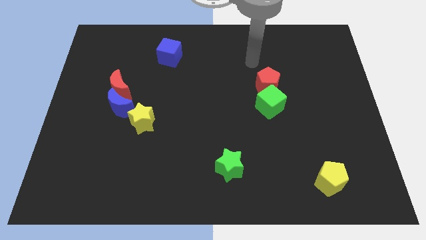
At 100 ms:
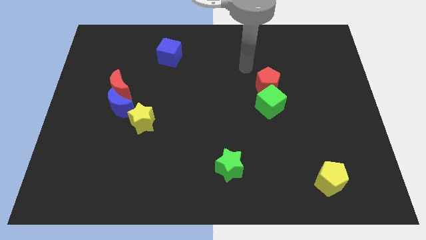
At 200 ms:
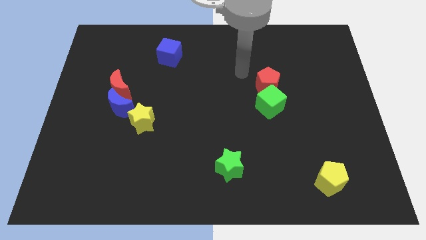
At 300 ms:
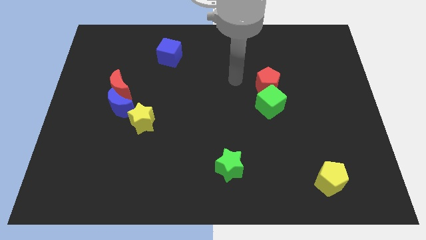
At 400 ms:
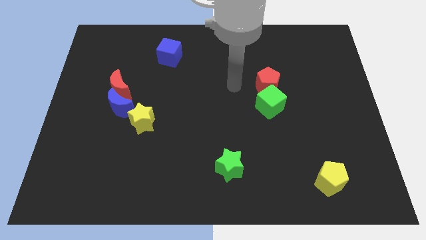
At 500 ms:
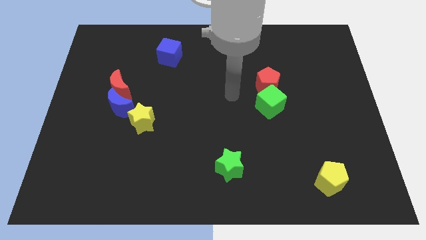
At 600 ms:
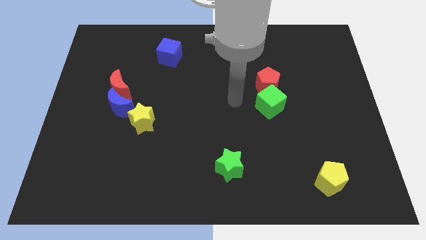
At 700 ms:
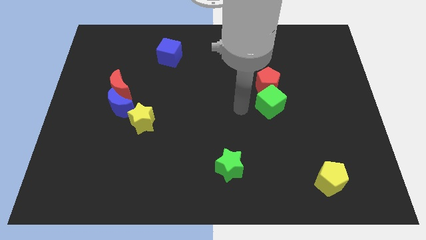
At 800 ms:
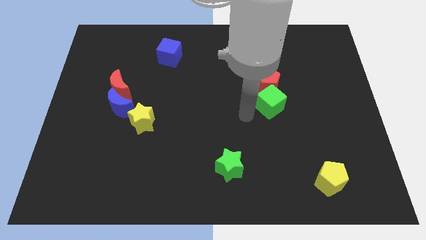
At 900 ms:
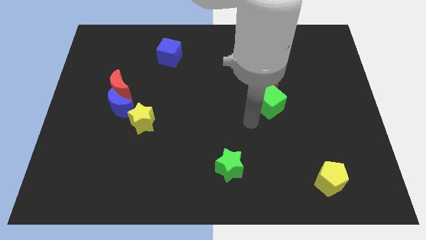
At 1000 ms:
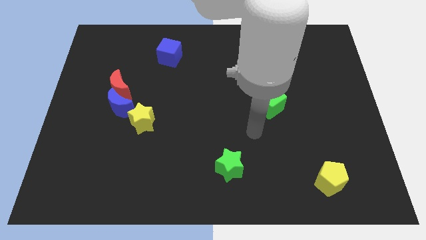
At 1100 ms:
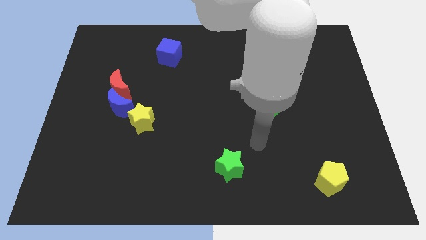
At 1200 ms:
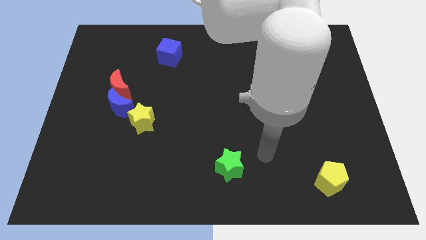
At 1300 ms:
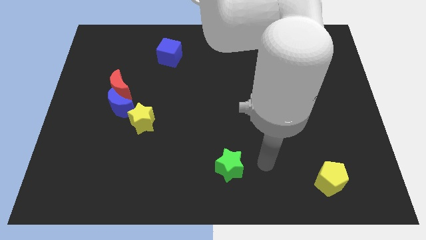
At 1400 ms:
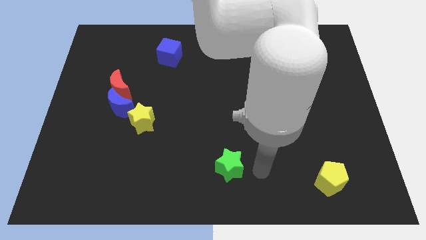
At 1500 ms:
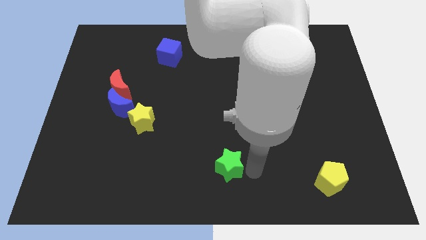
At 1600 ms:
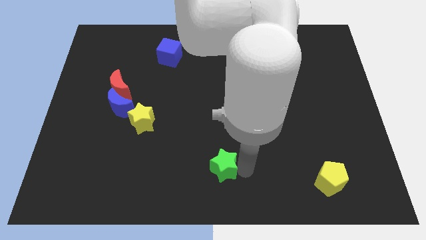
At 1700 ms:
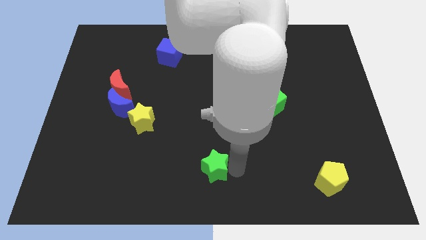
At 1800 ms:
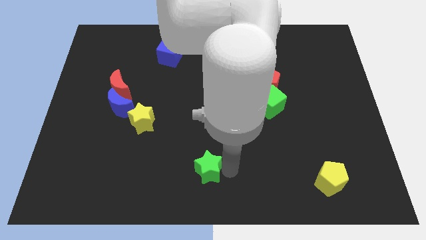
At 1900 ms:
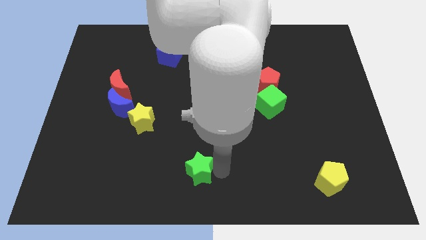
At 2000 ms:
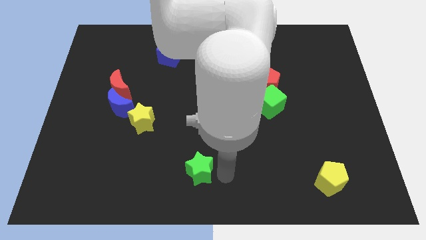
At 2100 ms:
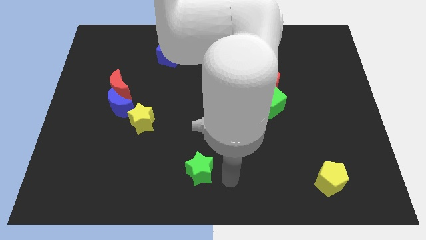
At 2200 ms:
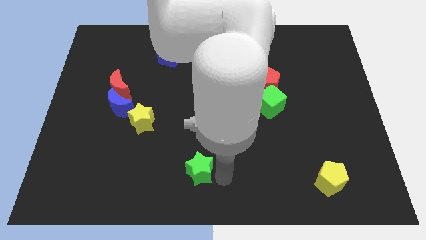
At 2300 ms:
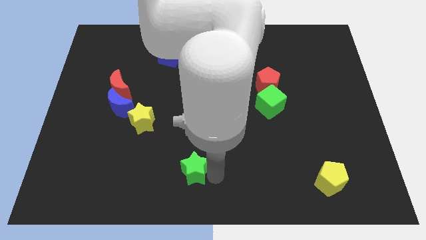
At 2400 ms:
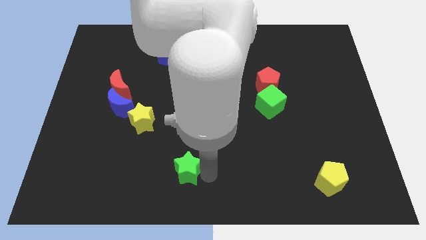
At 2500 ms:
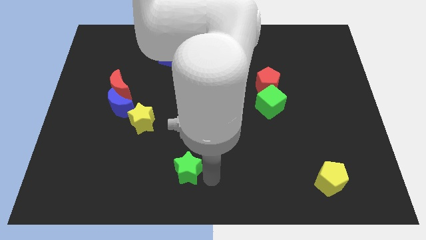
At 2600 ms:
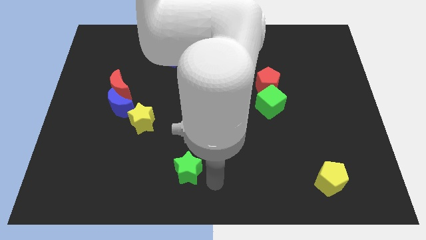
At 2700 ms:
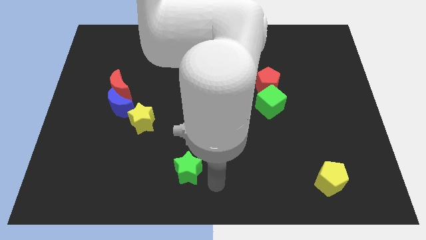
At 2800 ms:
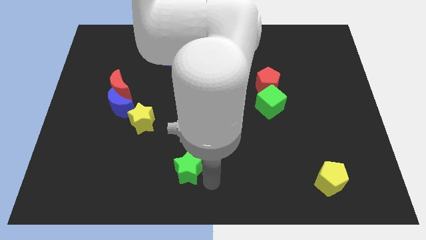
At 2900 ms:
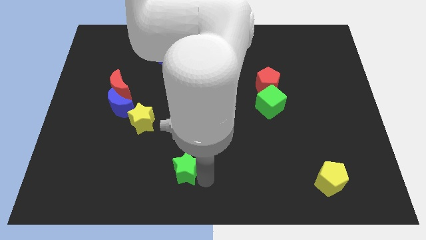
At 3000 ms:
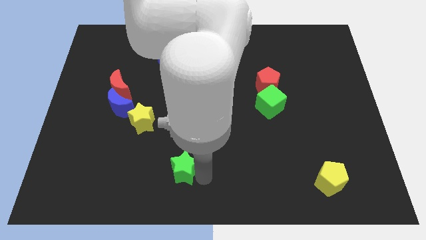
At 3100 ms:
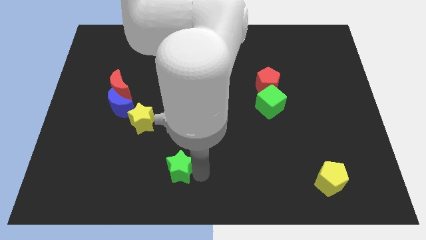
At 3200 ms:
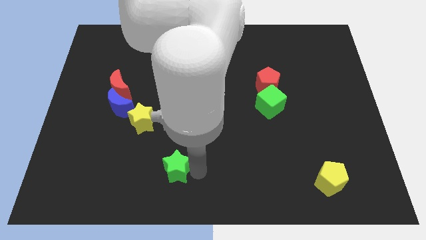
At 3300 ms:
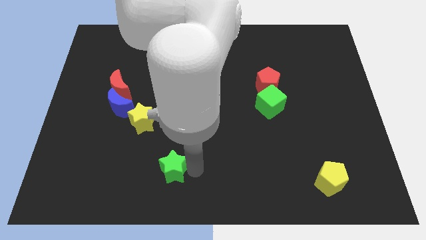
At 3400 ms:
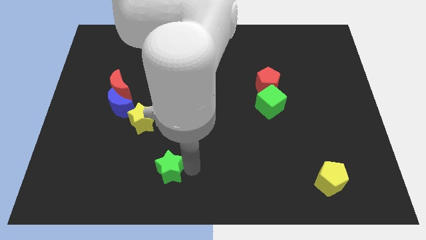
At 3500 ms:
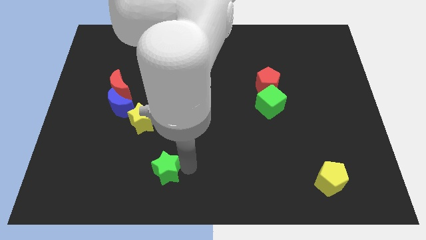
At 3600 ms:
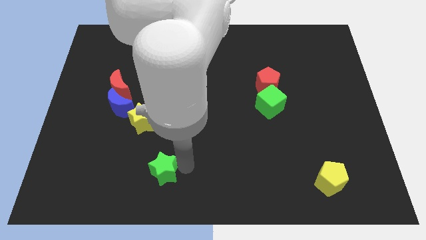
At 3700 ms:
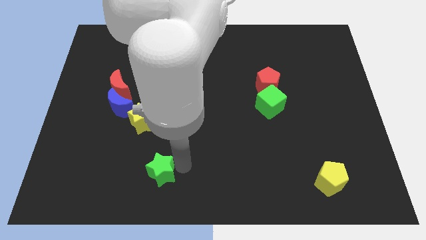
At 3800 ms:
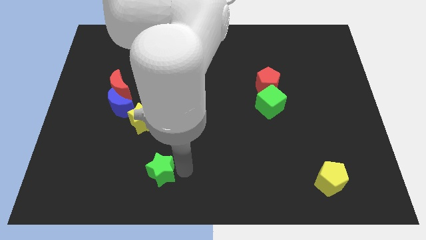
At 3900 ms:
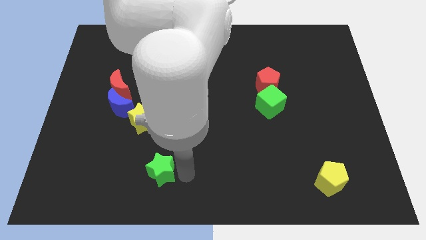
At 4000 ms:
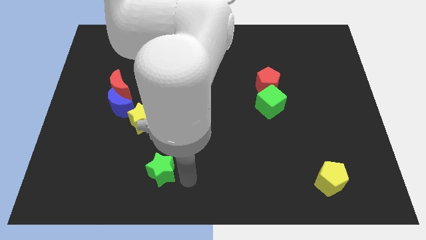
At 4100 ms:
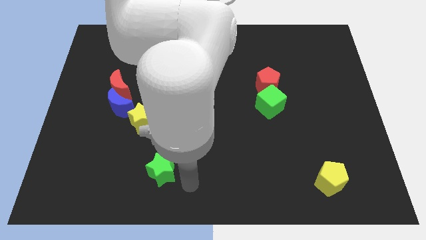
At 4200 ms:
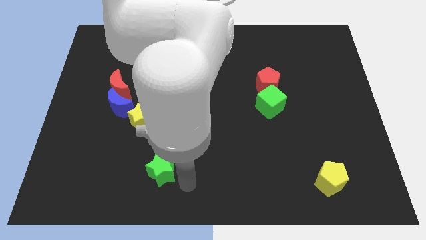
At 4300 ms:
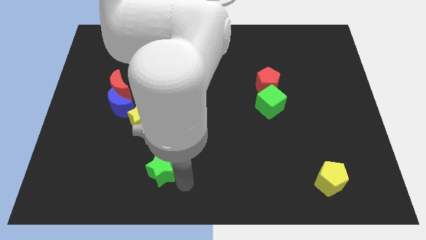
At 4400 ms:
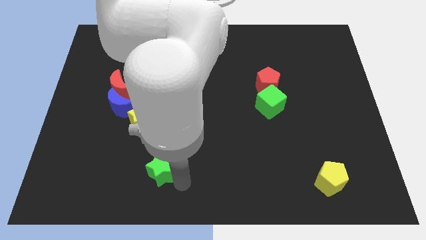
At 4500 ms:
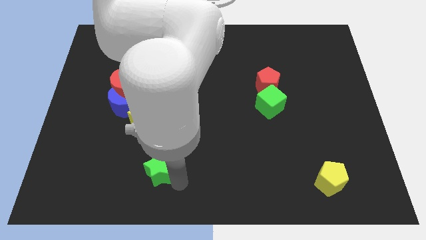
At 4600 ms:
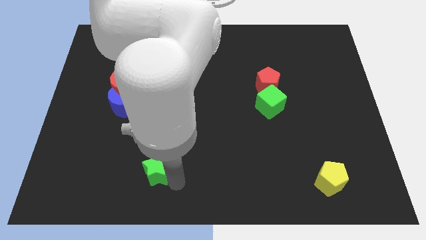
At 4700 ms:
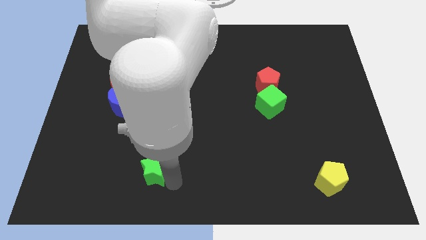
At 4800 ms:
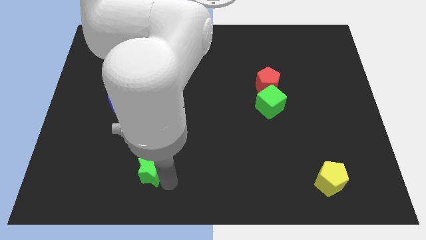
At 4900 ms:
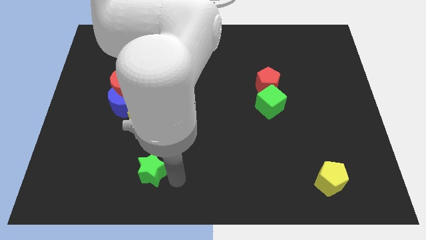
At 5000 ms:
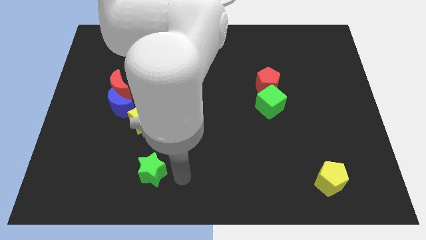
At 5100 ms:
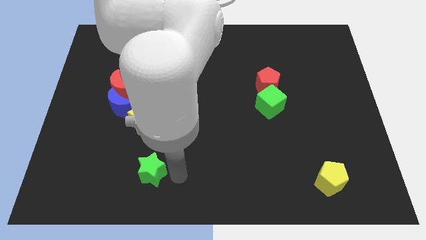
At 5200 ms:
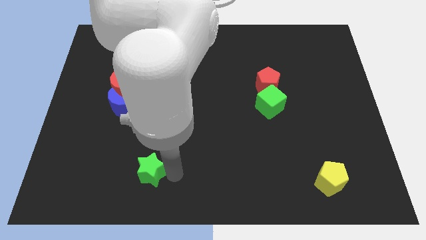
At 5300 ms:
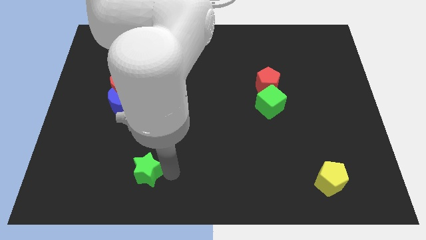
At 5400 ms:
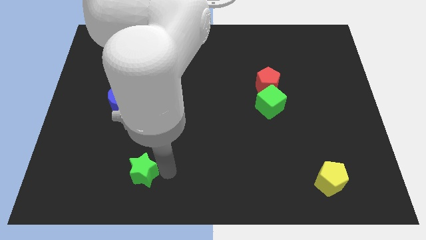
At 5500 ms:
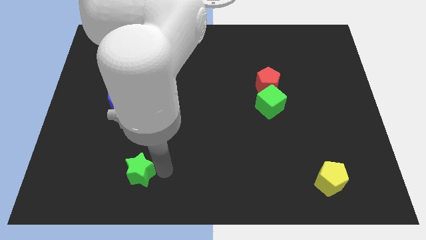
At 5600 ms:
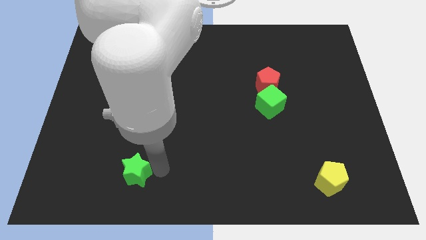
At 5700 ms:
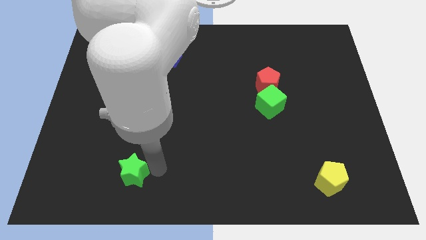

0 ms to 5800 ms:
slide the green star to the left

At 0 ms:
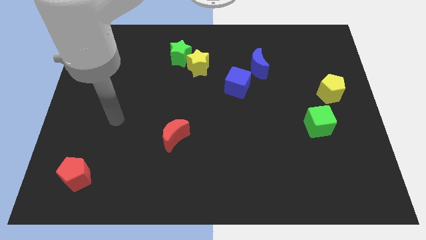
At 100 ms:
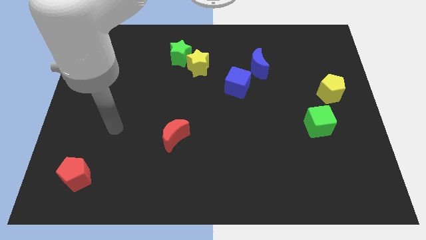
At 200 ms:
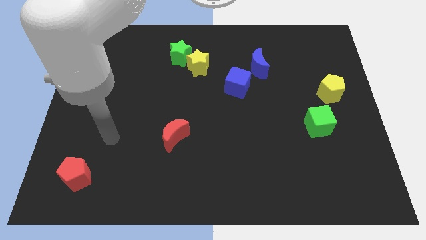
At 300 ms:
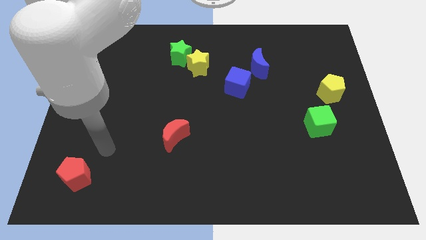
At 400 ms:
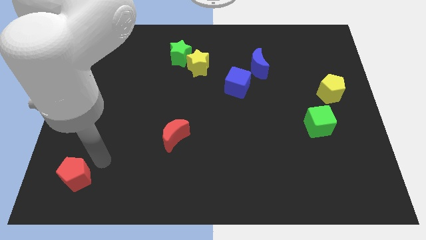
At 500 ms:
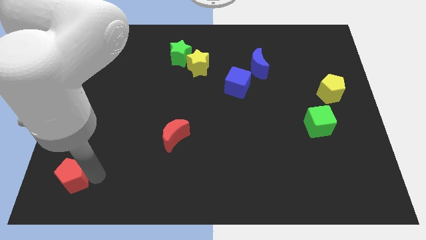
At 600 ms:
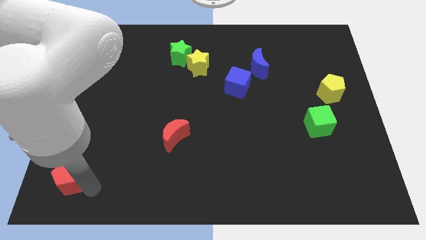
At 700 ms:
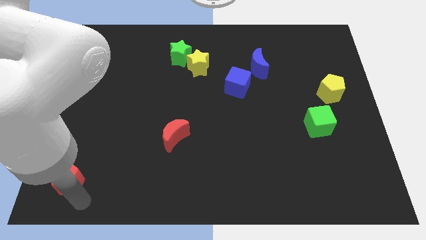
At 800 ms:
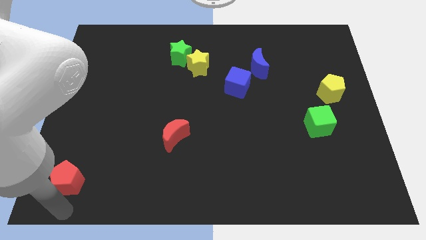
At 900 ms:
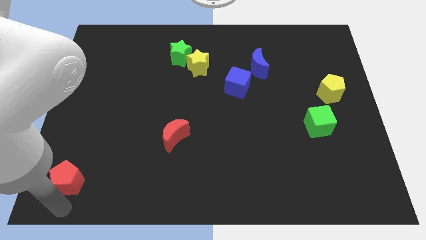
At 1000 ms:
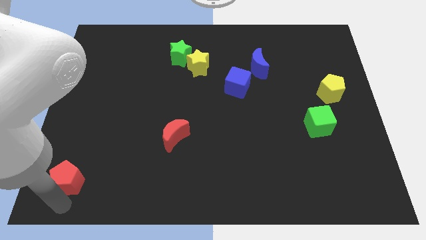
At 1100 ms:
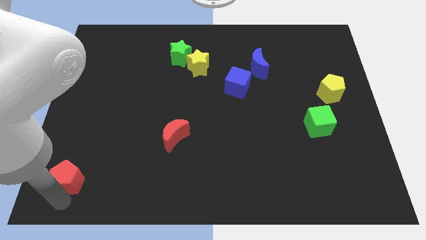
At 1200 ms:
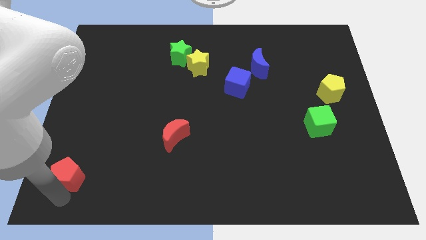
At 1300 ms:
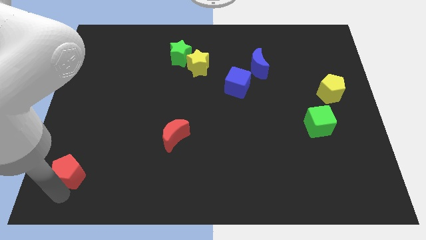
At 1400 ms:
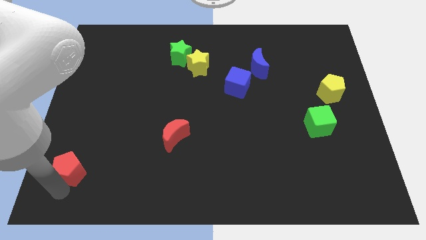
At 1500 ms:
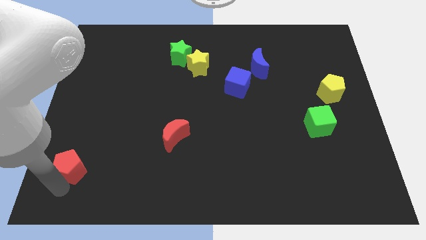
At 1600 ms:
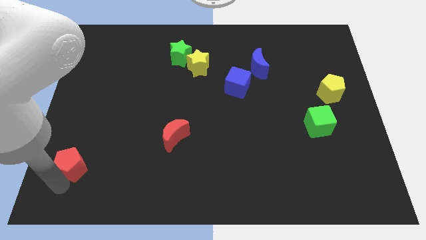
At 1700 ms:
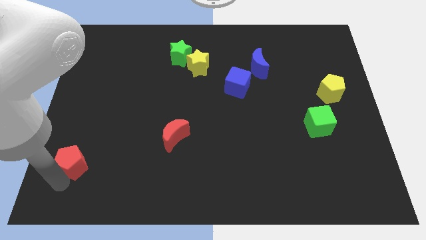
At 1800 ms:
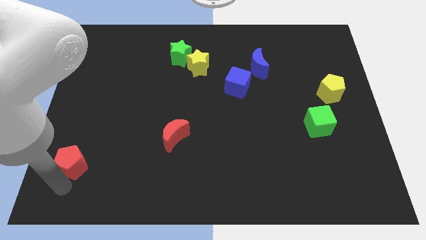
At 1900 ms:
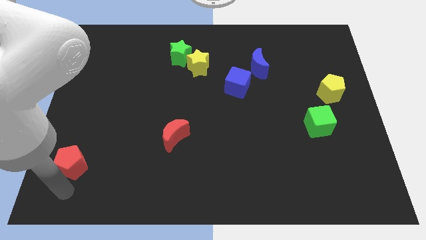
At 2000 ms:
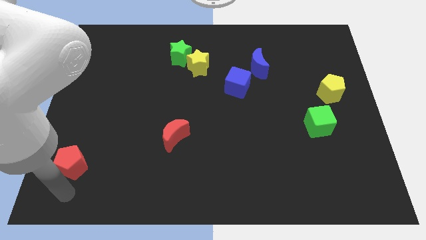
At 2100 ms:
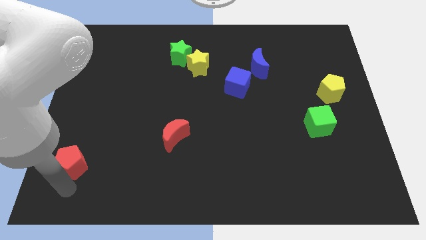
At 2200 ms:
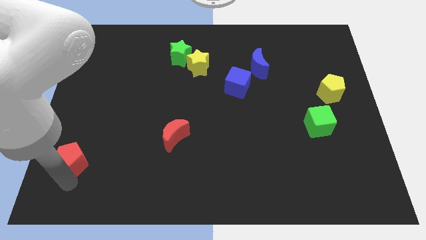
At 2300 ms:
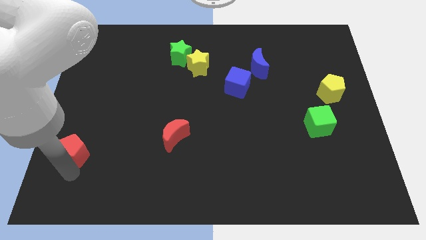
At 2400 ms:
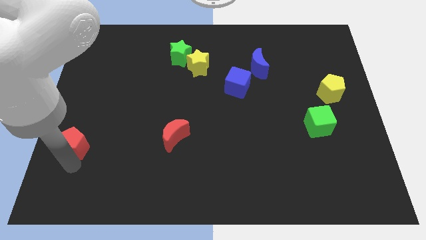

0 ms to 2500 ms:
slightly move the red pentagon up

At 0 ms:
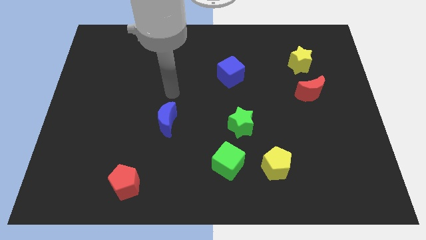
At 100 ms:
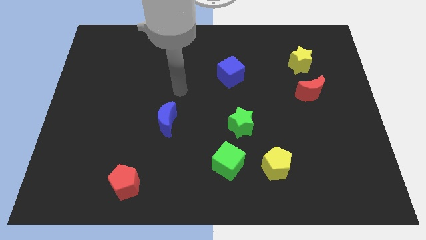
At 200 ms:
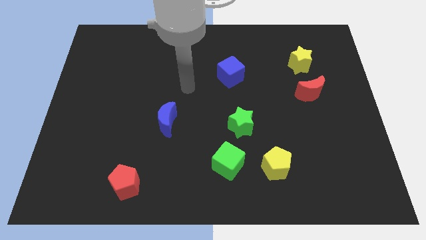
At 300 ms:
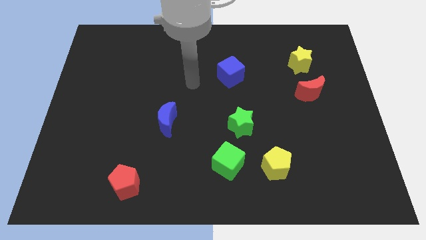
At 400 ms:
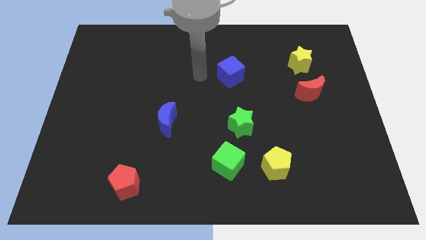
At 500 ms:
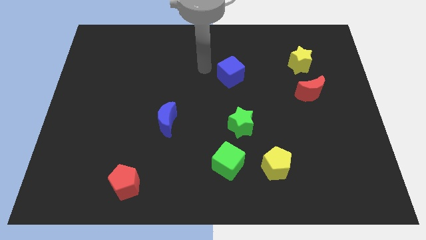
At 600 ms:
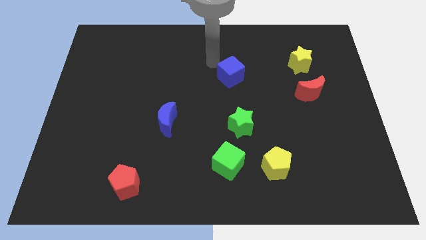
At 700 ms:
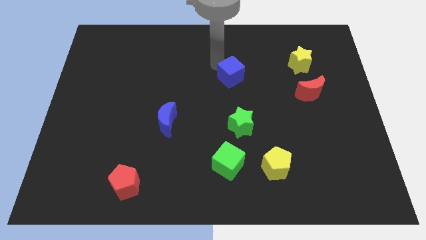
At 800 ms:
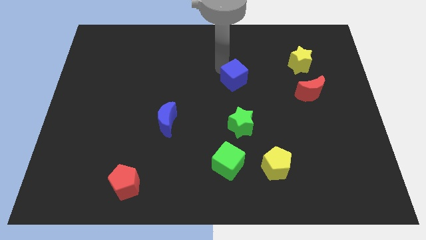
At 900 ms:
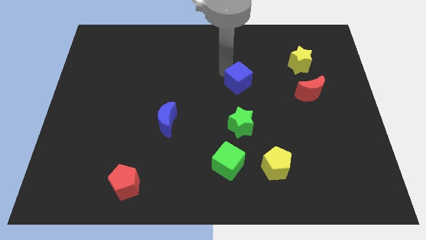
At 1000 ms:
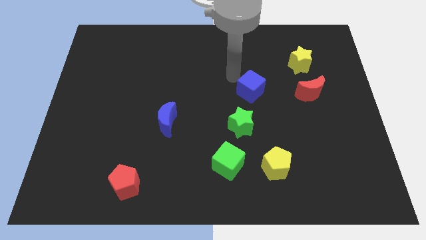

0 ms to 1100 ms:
slide the blue cube somewhat diagonally downwards and right
